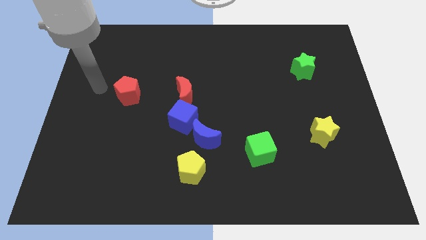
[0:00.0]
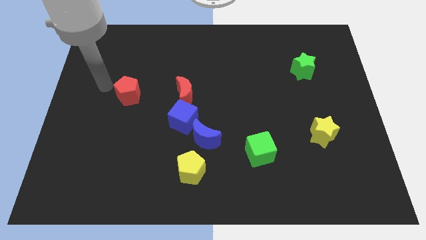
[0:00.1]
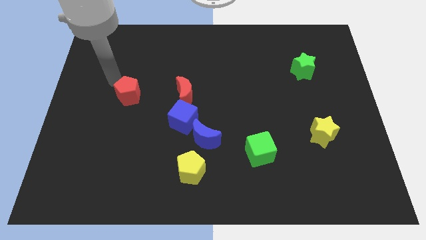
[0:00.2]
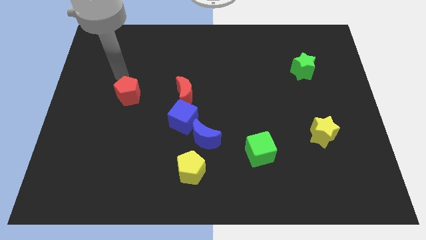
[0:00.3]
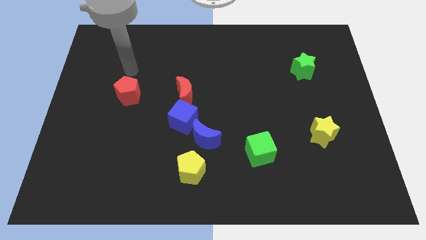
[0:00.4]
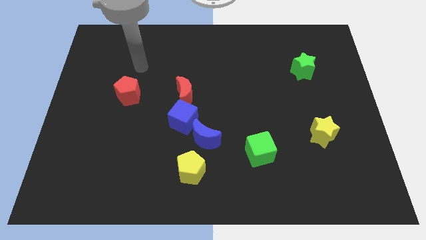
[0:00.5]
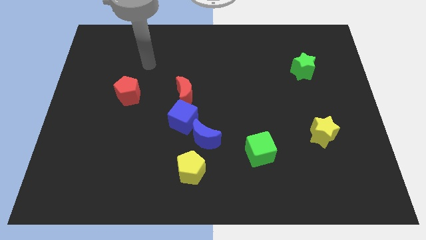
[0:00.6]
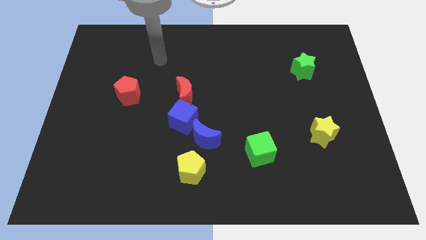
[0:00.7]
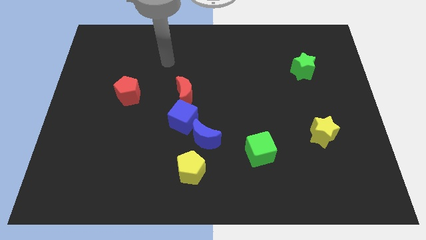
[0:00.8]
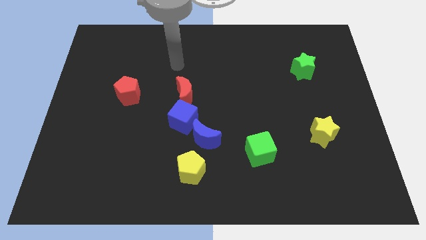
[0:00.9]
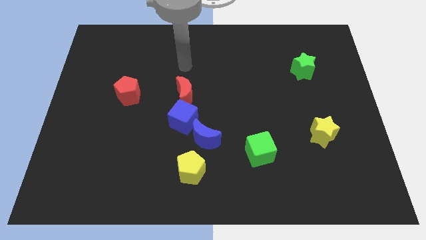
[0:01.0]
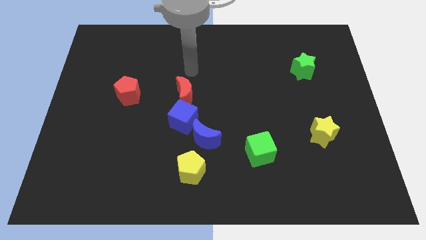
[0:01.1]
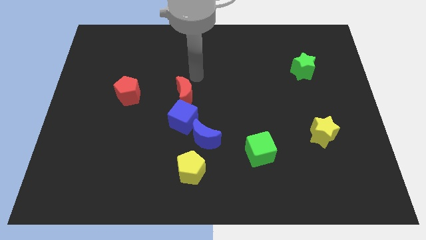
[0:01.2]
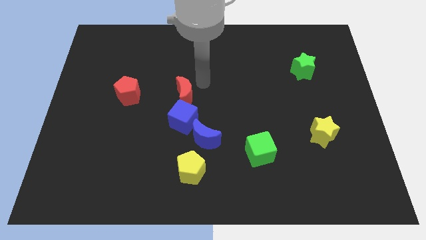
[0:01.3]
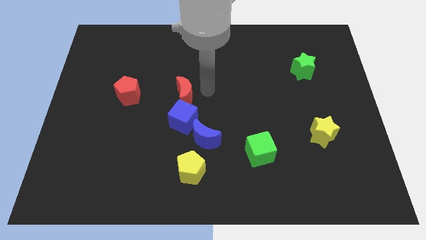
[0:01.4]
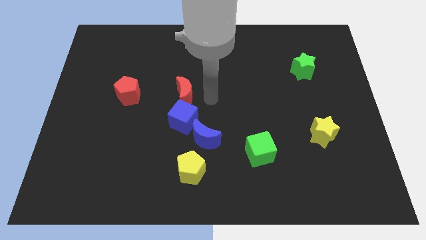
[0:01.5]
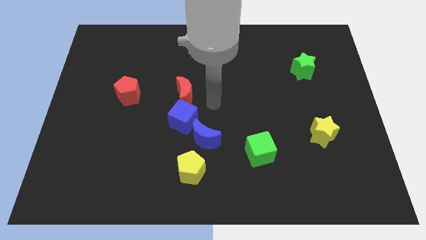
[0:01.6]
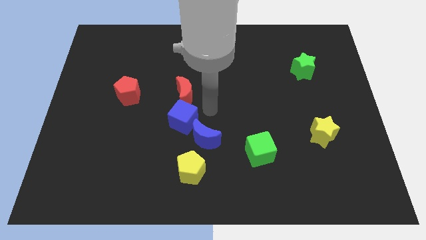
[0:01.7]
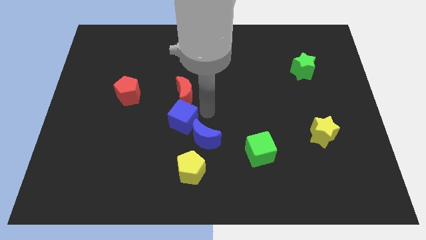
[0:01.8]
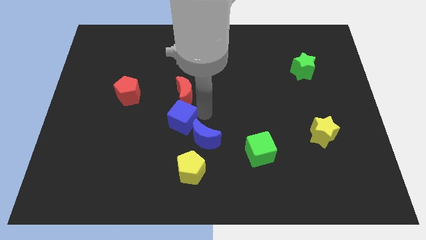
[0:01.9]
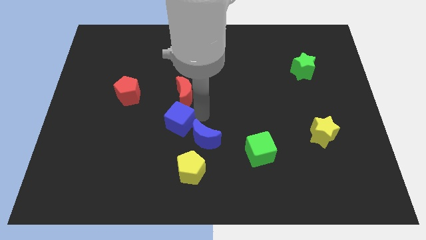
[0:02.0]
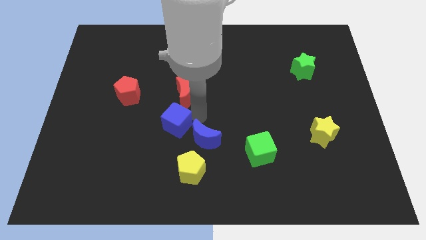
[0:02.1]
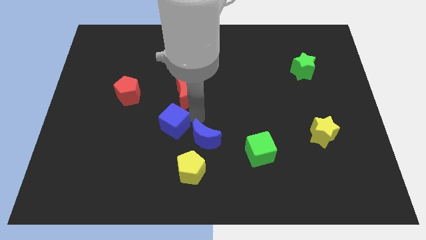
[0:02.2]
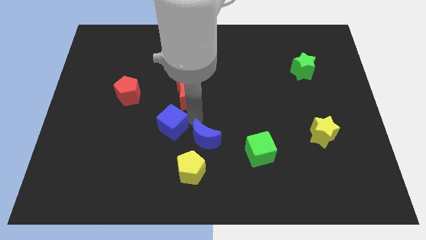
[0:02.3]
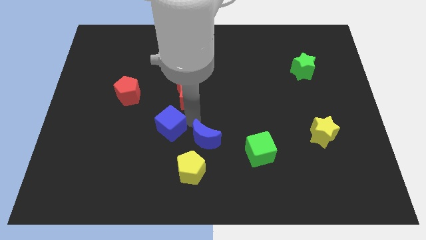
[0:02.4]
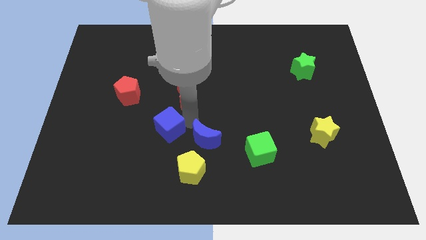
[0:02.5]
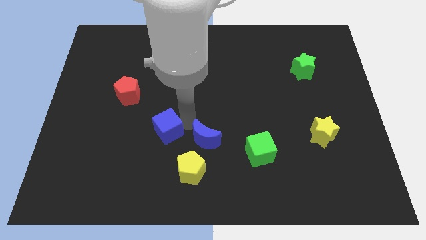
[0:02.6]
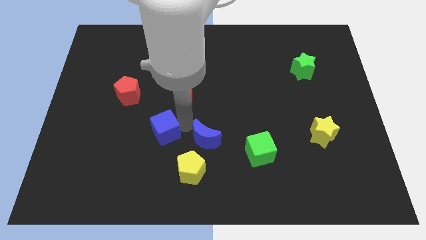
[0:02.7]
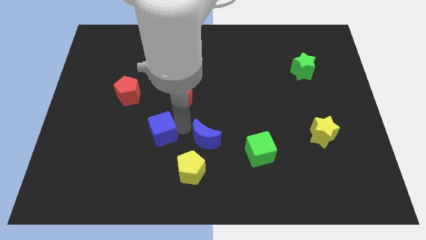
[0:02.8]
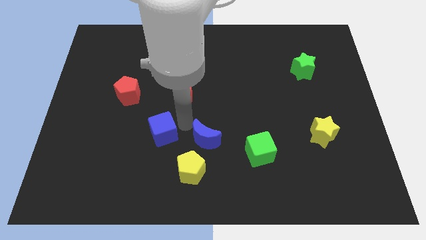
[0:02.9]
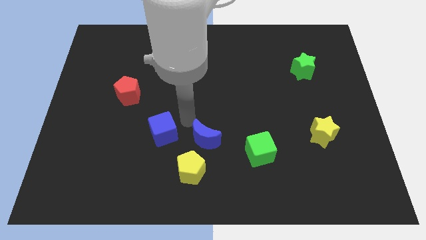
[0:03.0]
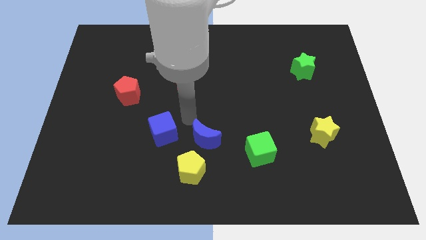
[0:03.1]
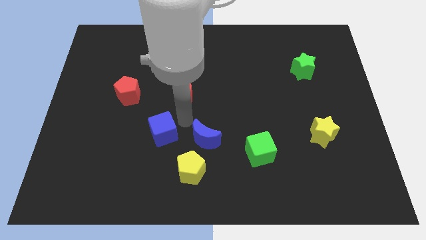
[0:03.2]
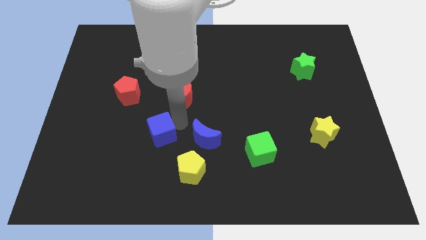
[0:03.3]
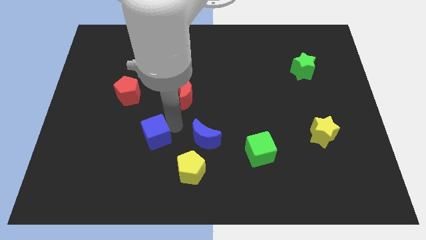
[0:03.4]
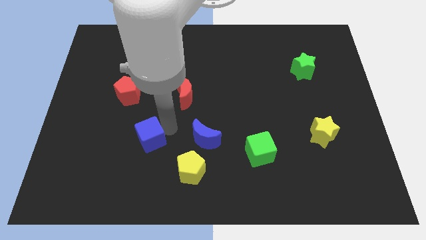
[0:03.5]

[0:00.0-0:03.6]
separate the blue cube from the blue moon and red moon

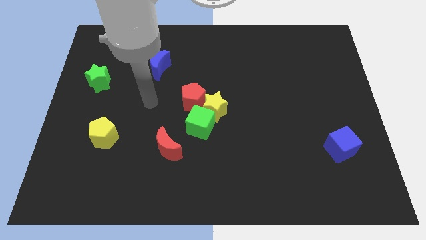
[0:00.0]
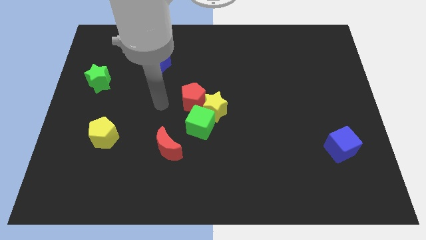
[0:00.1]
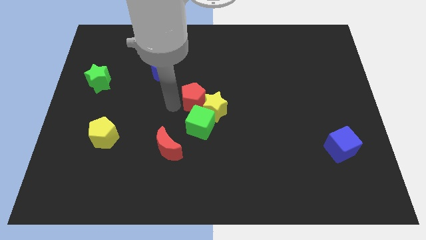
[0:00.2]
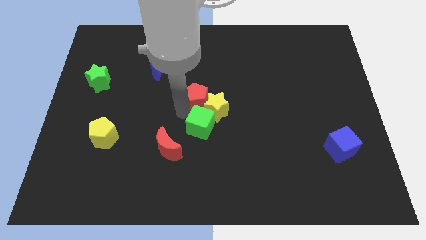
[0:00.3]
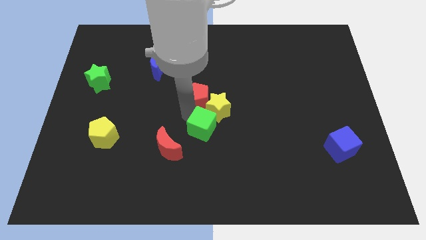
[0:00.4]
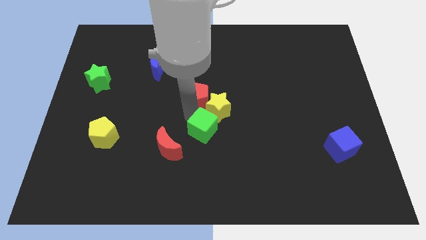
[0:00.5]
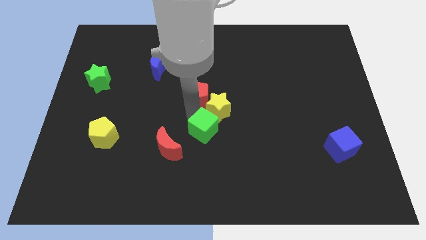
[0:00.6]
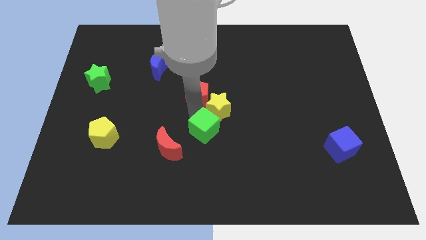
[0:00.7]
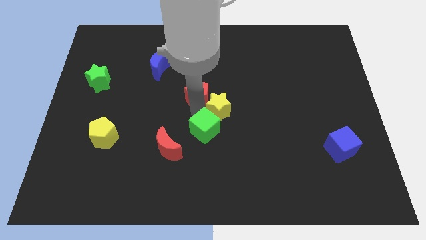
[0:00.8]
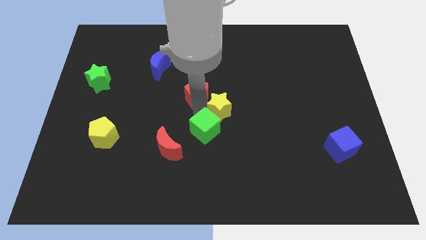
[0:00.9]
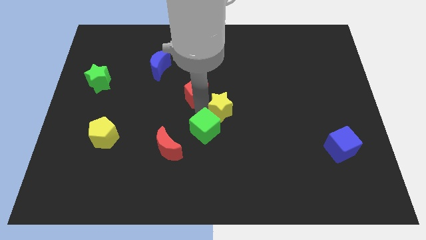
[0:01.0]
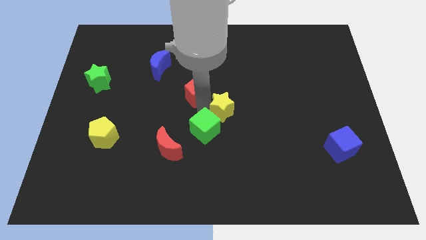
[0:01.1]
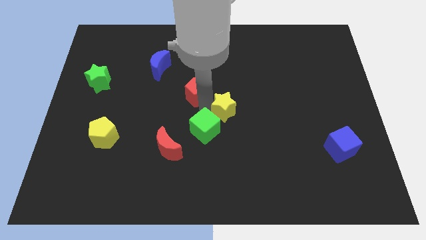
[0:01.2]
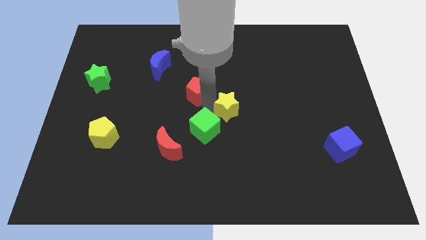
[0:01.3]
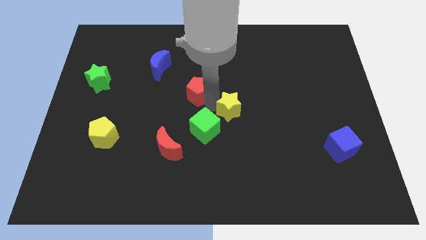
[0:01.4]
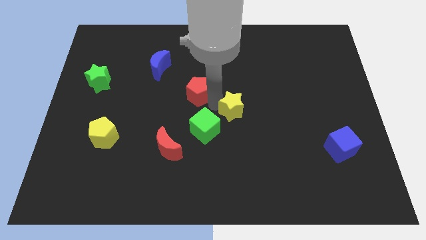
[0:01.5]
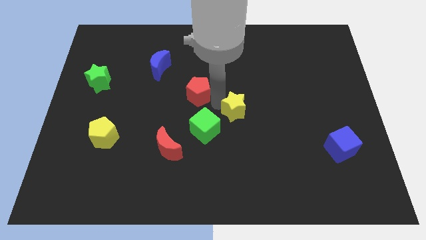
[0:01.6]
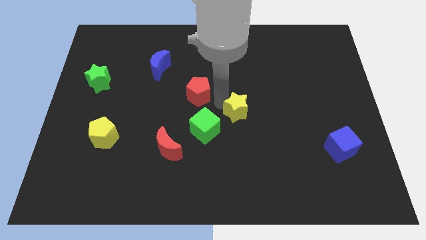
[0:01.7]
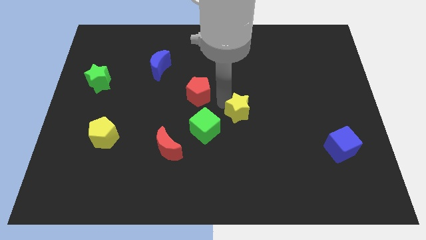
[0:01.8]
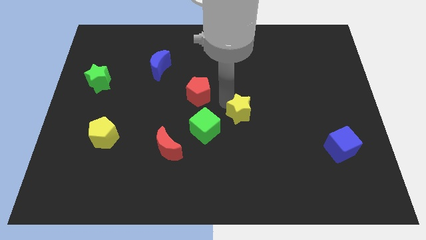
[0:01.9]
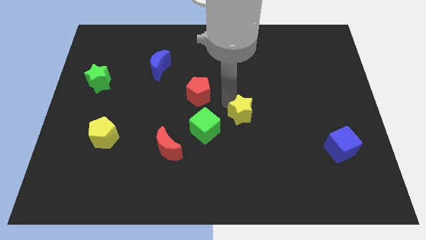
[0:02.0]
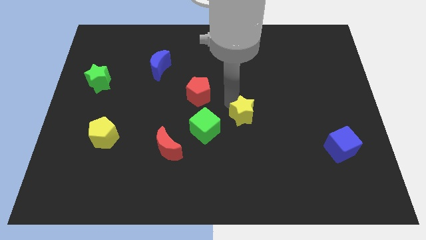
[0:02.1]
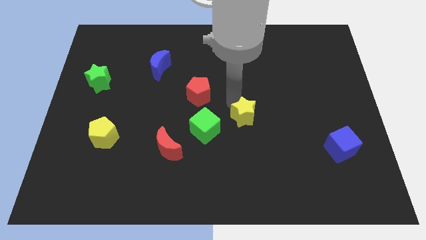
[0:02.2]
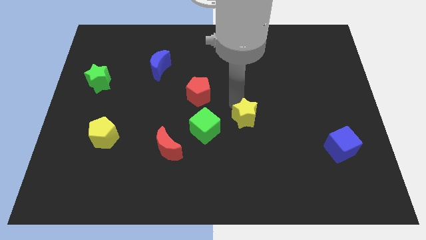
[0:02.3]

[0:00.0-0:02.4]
move the yellow star away from the green cube and red pentagon

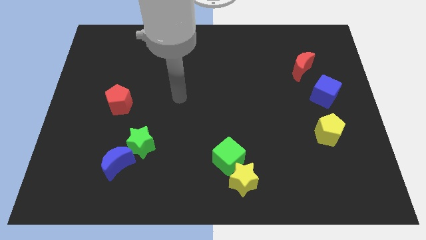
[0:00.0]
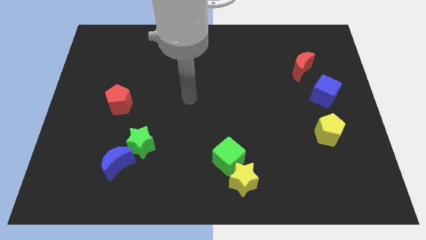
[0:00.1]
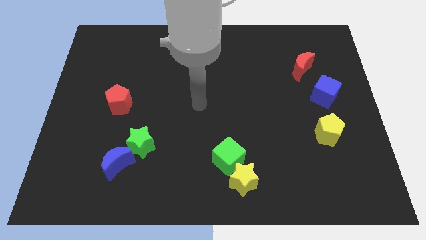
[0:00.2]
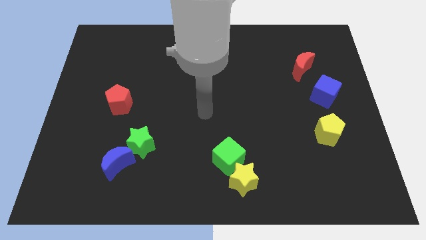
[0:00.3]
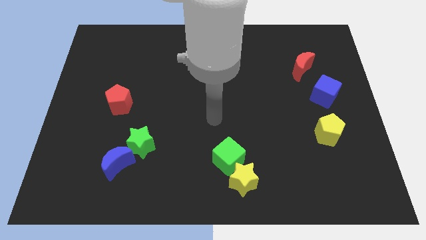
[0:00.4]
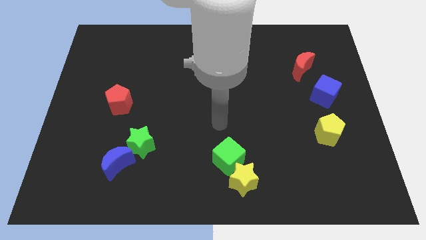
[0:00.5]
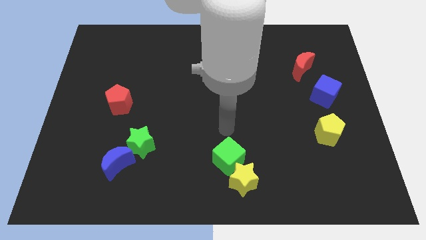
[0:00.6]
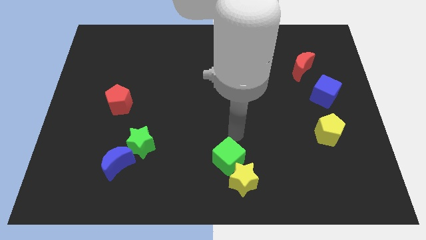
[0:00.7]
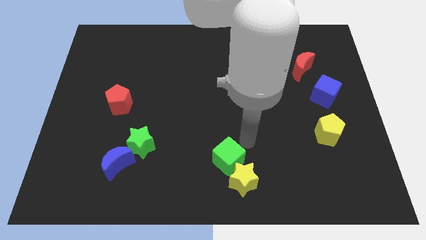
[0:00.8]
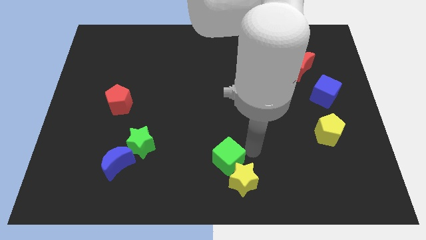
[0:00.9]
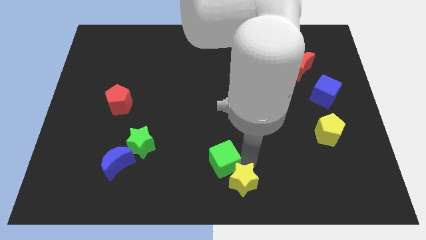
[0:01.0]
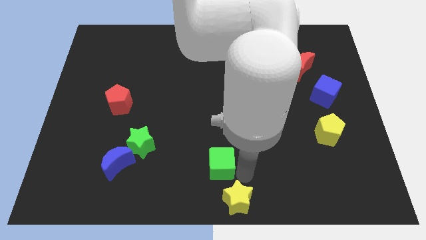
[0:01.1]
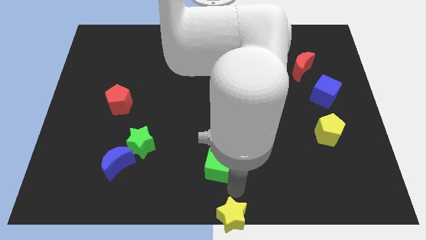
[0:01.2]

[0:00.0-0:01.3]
move the green cube away from the yellow star

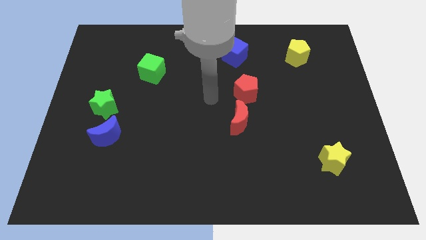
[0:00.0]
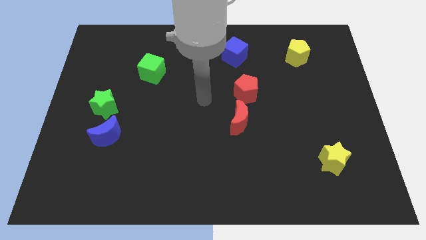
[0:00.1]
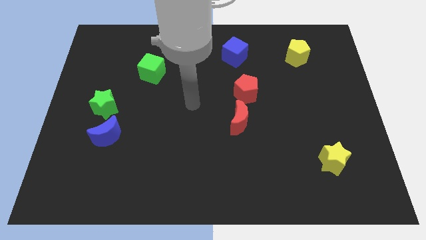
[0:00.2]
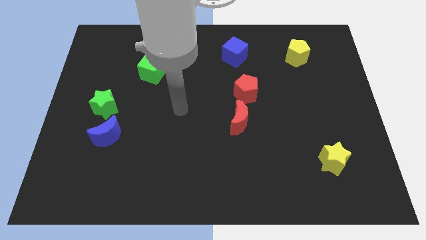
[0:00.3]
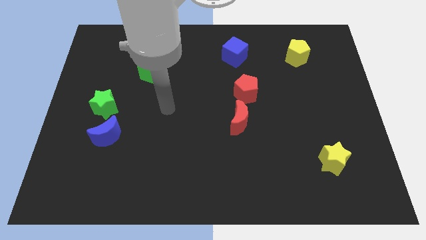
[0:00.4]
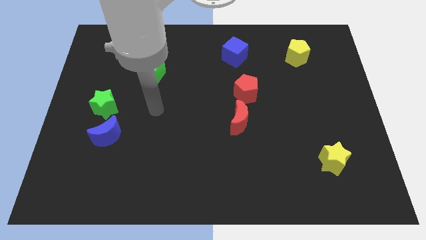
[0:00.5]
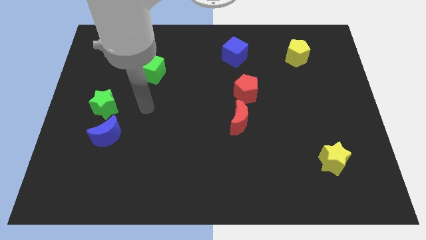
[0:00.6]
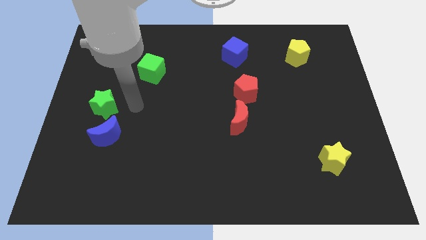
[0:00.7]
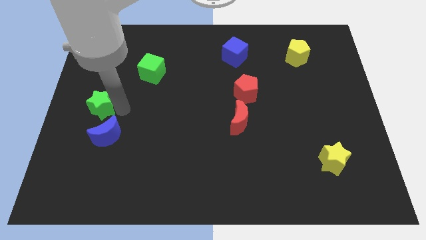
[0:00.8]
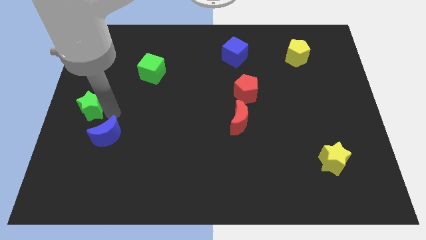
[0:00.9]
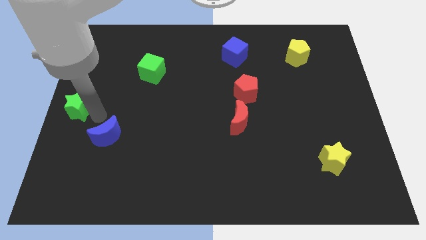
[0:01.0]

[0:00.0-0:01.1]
pull the blue moon apart from the green star

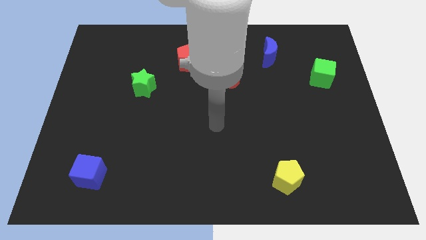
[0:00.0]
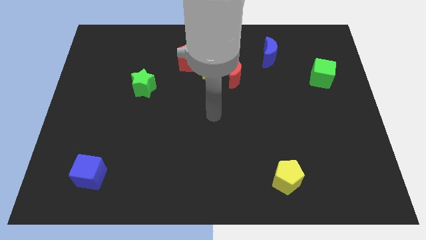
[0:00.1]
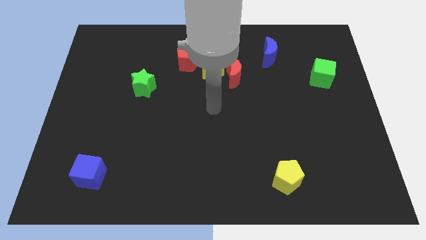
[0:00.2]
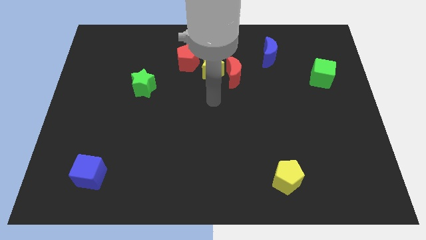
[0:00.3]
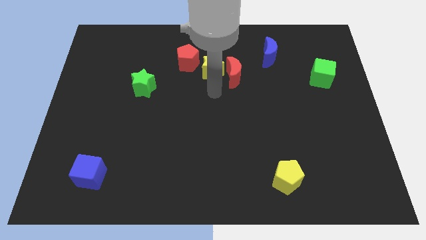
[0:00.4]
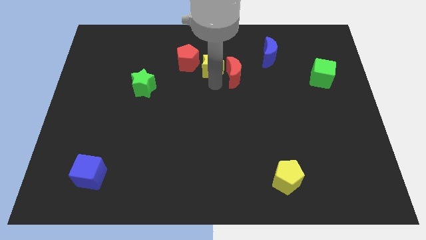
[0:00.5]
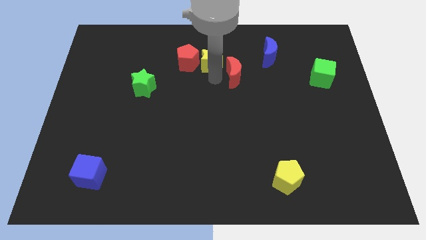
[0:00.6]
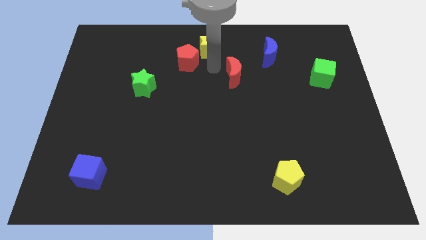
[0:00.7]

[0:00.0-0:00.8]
move the red moon away from the yellow star
